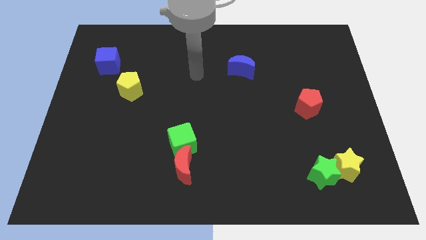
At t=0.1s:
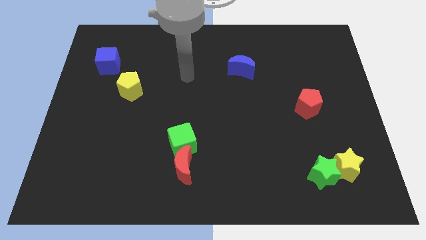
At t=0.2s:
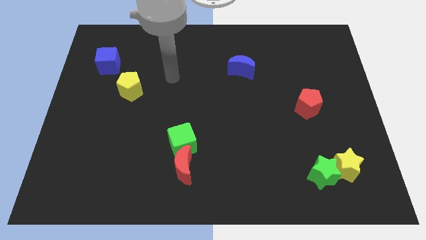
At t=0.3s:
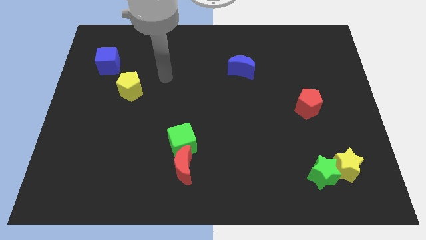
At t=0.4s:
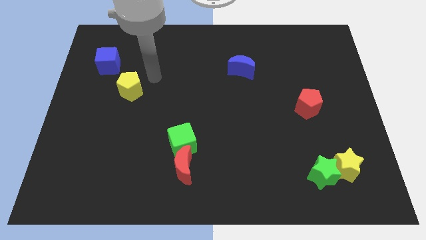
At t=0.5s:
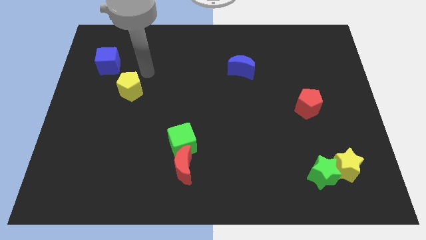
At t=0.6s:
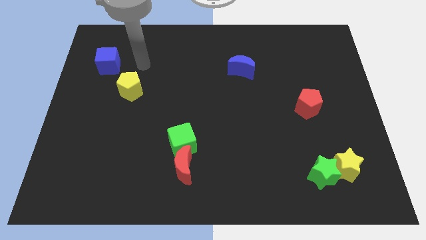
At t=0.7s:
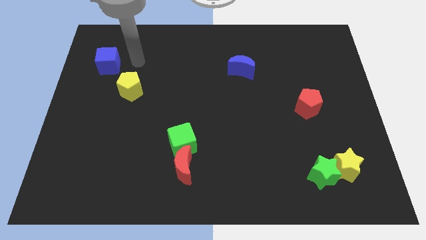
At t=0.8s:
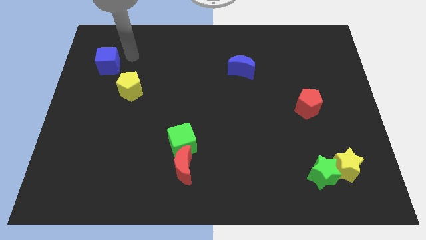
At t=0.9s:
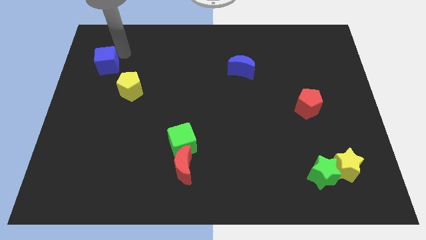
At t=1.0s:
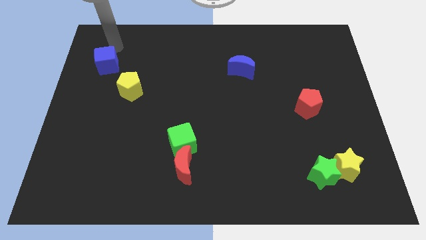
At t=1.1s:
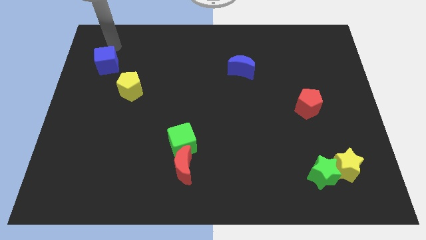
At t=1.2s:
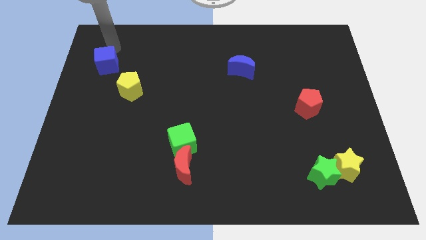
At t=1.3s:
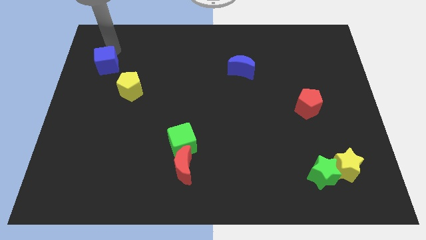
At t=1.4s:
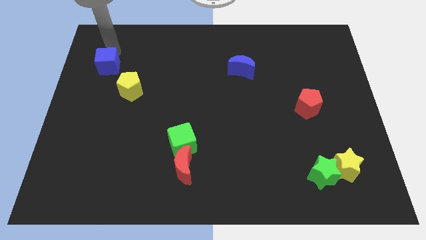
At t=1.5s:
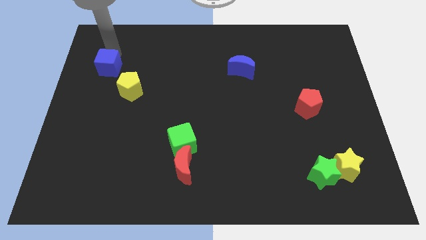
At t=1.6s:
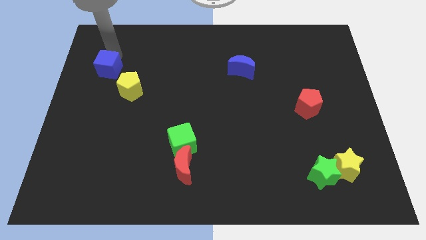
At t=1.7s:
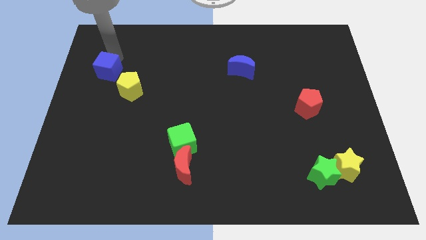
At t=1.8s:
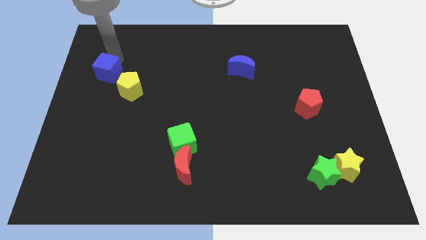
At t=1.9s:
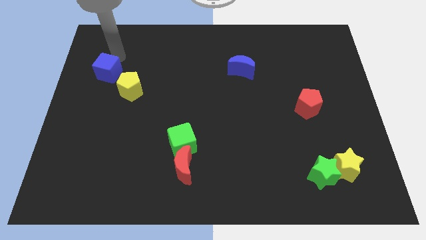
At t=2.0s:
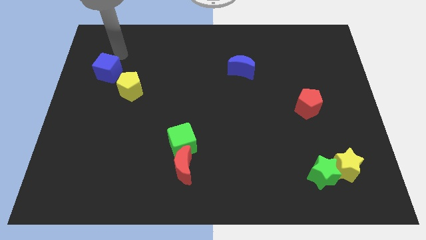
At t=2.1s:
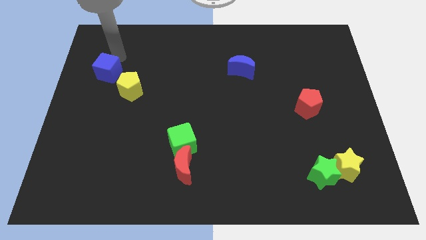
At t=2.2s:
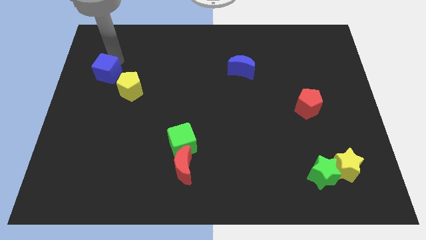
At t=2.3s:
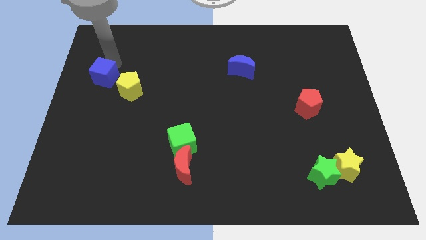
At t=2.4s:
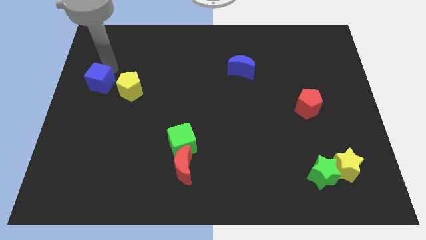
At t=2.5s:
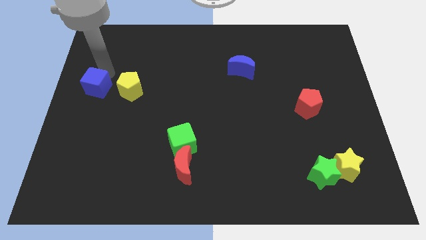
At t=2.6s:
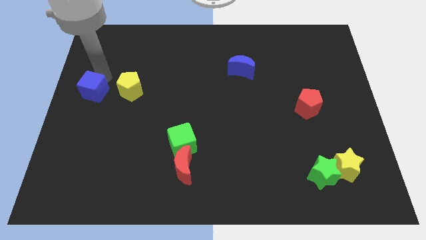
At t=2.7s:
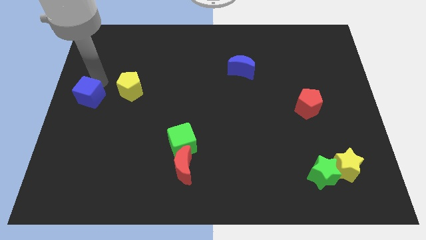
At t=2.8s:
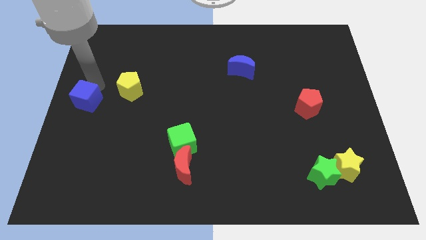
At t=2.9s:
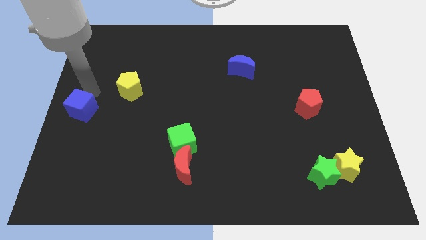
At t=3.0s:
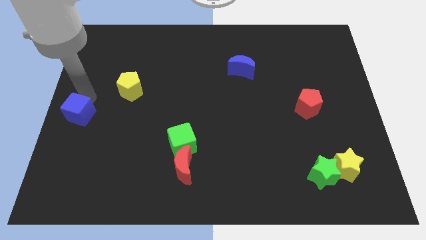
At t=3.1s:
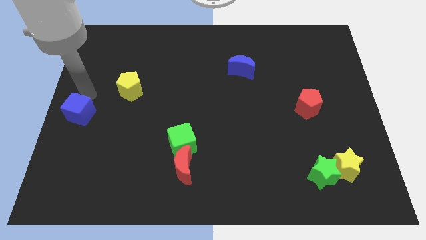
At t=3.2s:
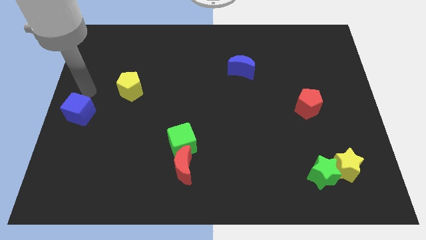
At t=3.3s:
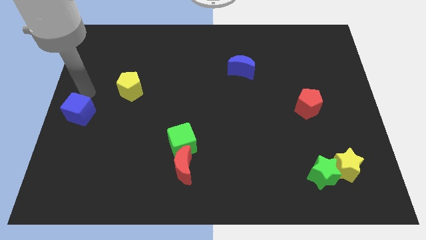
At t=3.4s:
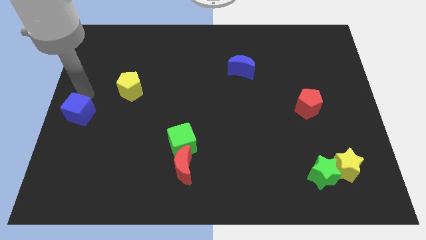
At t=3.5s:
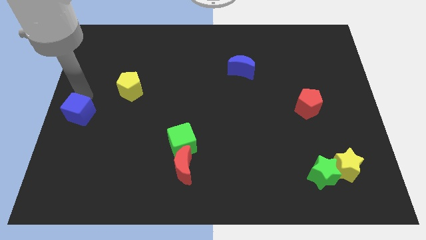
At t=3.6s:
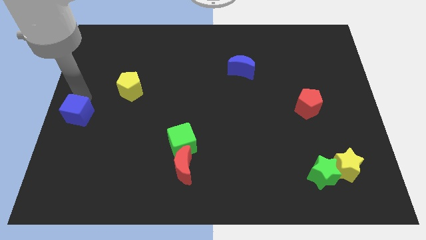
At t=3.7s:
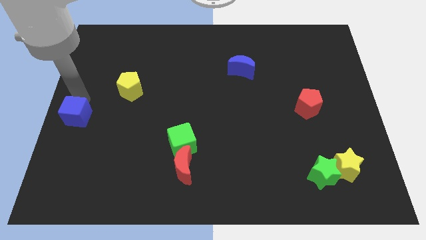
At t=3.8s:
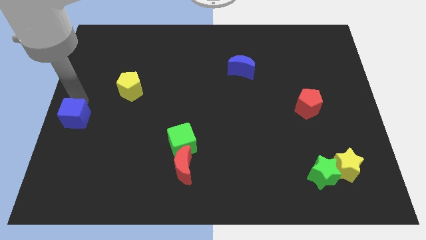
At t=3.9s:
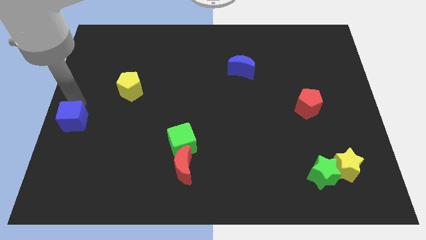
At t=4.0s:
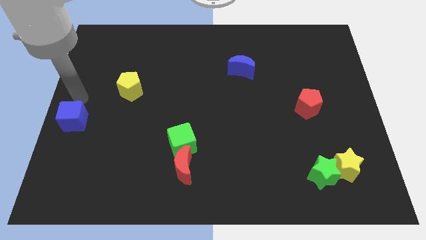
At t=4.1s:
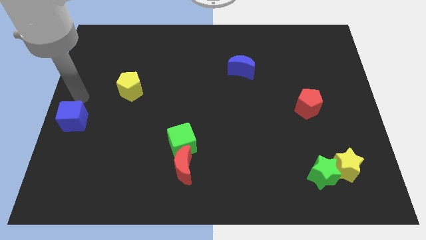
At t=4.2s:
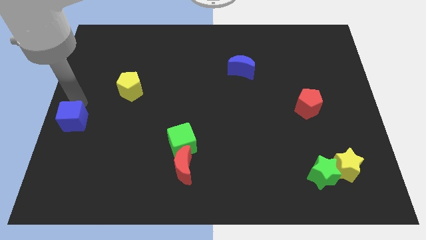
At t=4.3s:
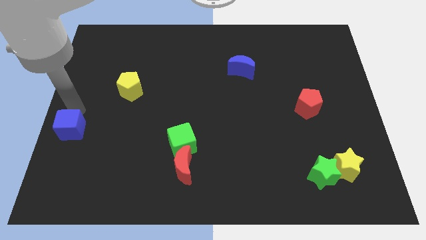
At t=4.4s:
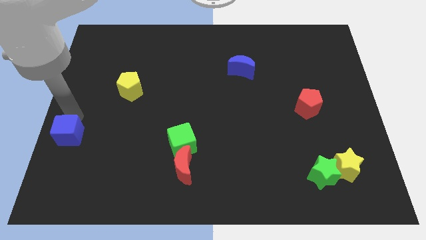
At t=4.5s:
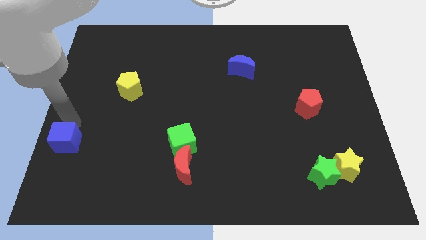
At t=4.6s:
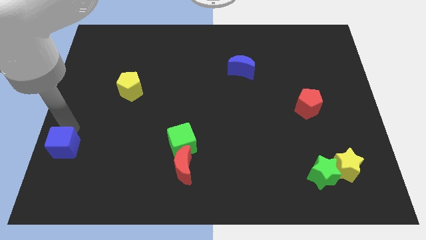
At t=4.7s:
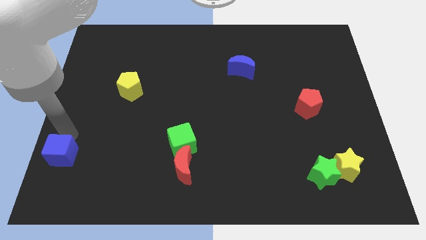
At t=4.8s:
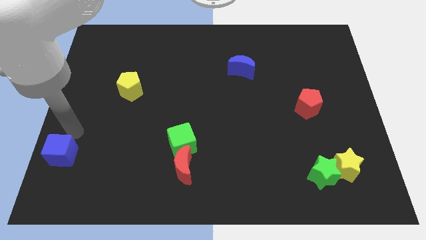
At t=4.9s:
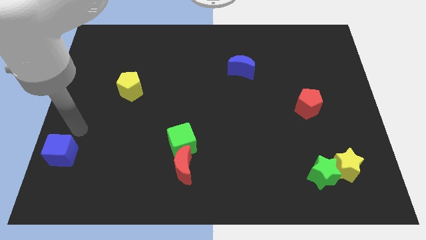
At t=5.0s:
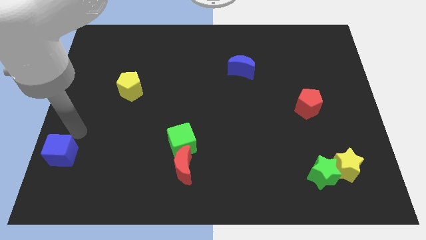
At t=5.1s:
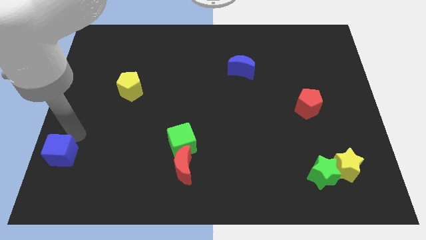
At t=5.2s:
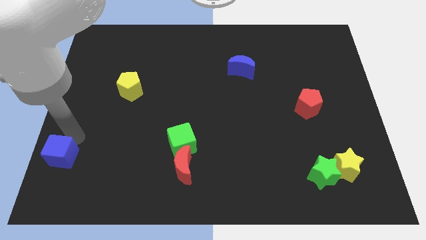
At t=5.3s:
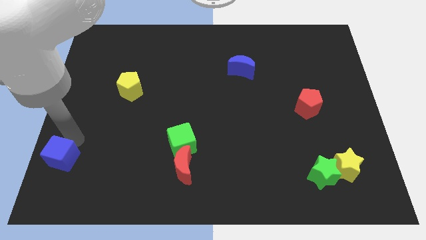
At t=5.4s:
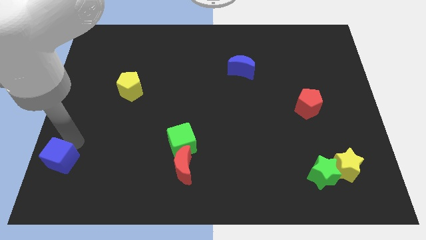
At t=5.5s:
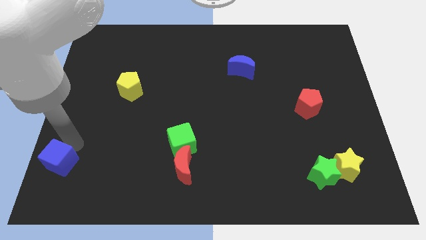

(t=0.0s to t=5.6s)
push the blue cube to the bottom left of the board
